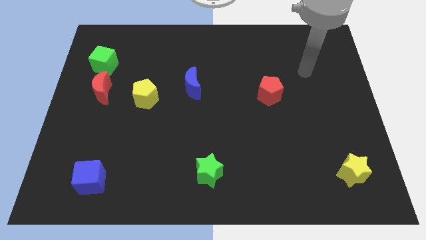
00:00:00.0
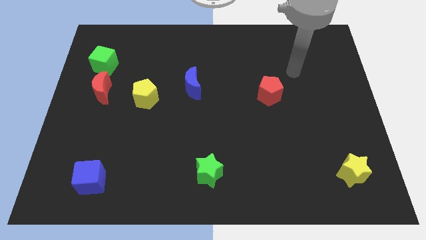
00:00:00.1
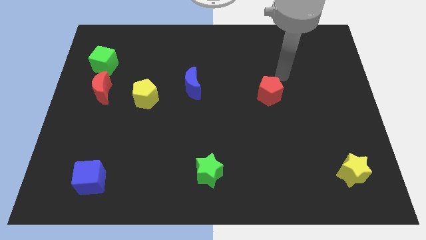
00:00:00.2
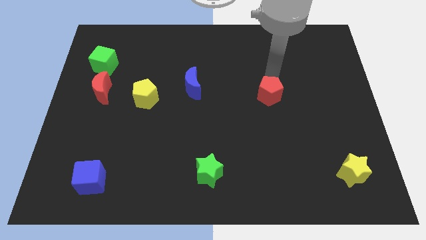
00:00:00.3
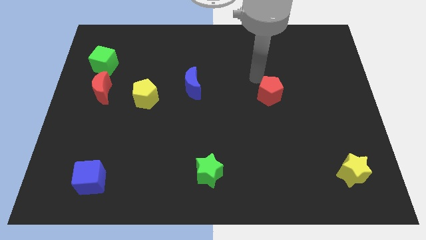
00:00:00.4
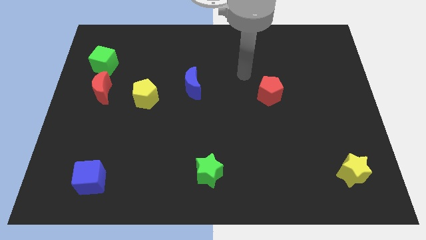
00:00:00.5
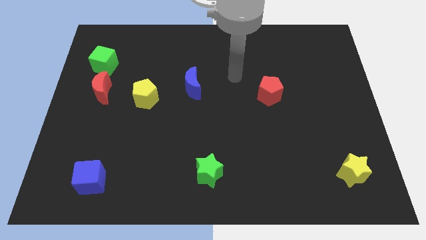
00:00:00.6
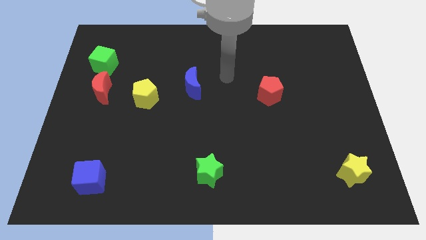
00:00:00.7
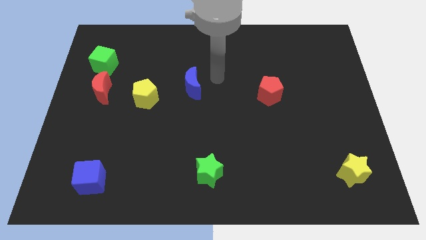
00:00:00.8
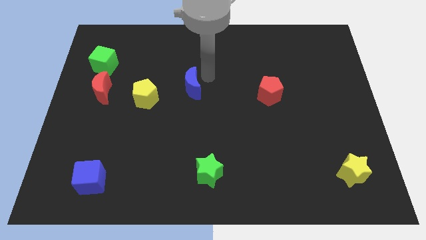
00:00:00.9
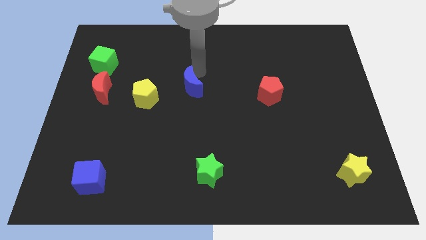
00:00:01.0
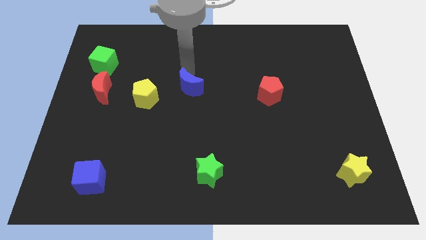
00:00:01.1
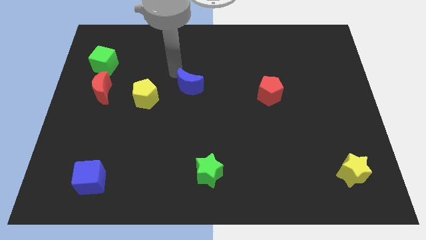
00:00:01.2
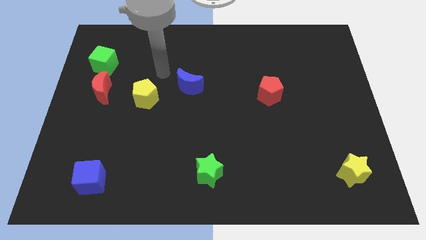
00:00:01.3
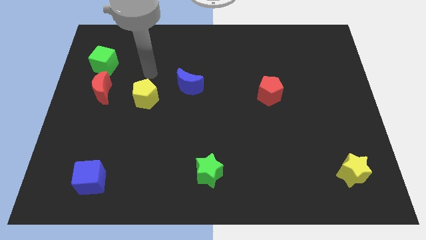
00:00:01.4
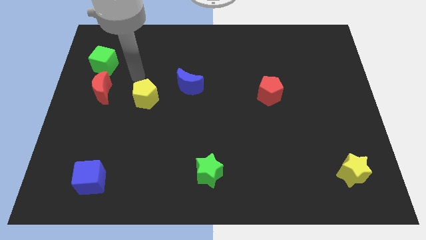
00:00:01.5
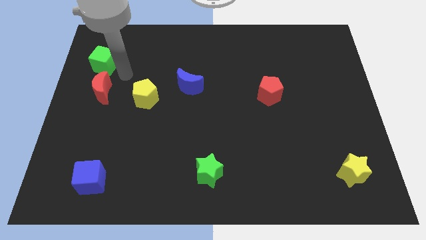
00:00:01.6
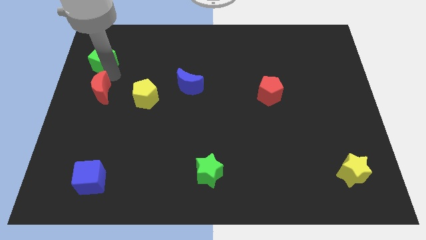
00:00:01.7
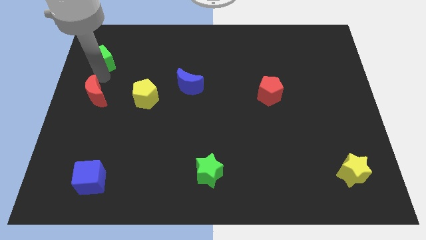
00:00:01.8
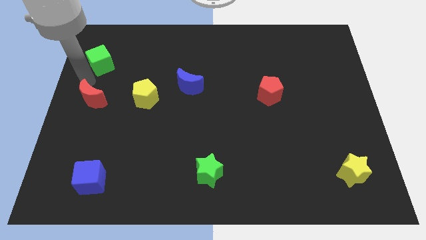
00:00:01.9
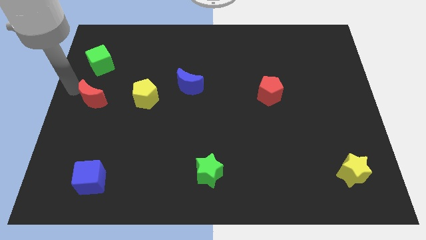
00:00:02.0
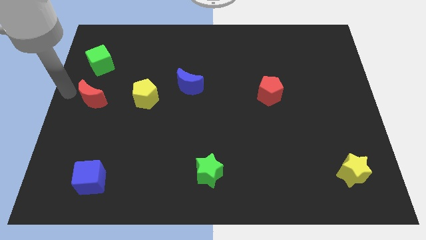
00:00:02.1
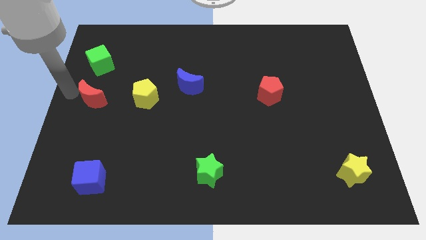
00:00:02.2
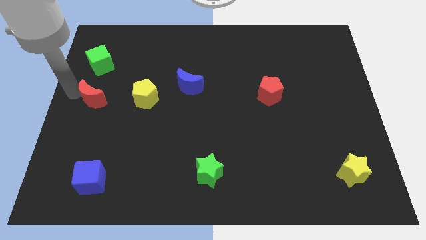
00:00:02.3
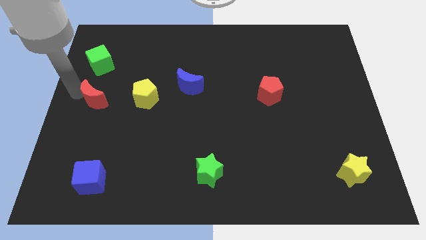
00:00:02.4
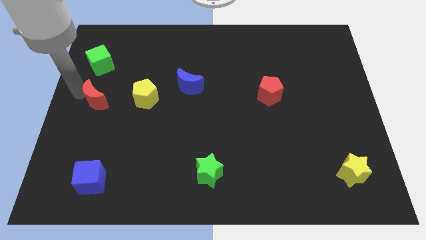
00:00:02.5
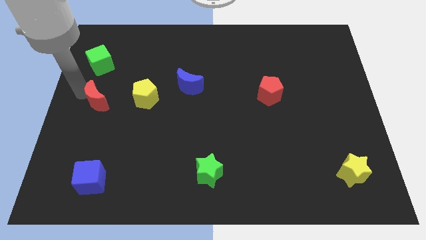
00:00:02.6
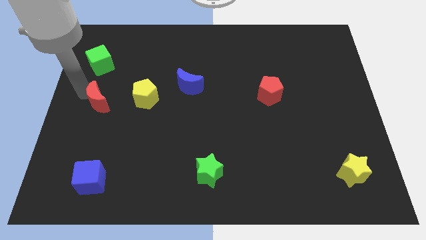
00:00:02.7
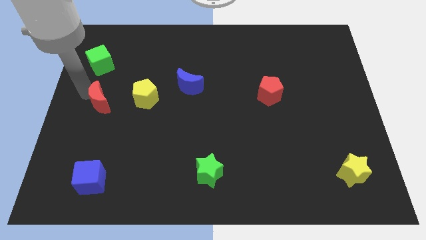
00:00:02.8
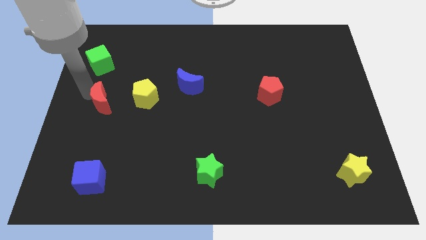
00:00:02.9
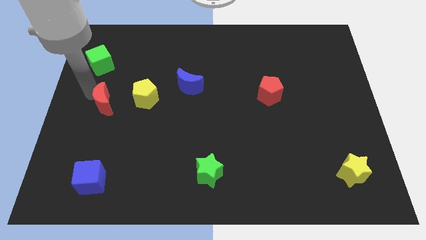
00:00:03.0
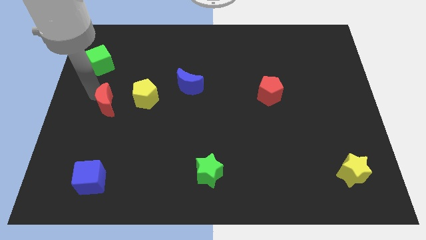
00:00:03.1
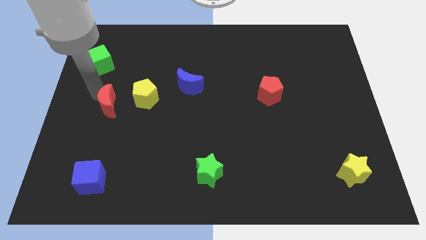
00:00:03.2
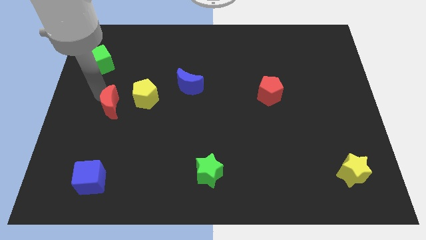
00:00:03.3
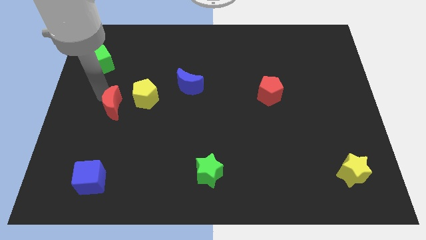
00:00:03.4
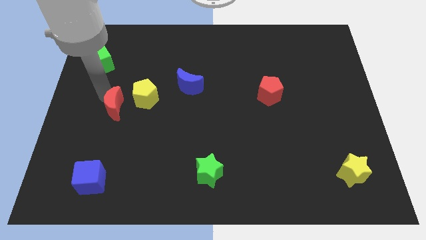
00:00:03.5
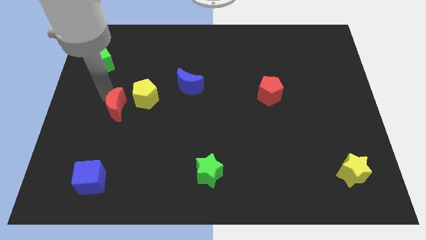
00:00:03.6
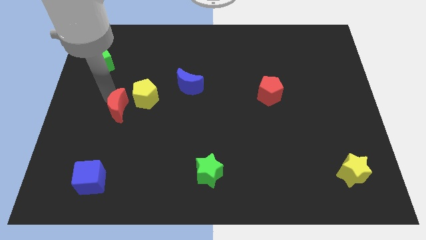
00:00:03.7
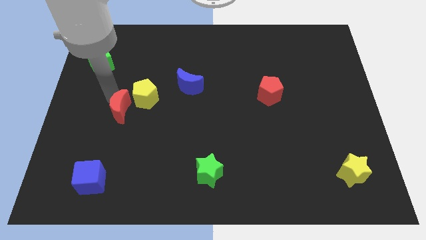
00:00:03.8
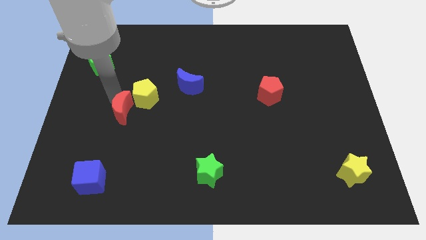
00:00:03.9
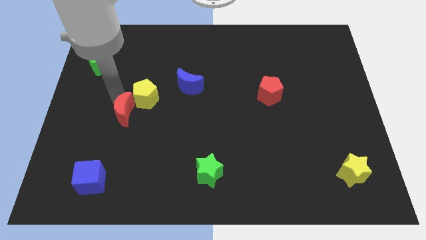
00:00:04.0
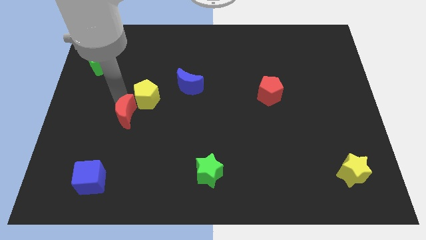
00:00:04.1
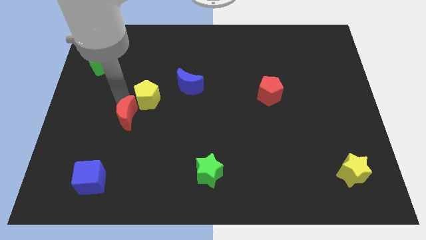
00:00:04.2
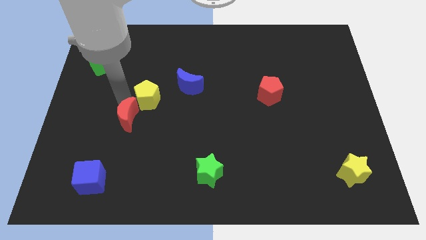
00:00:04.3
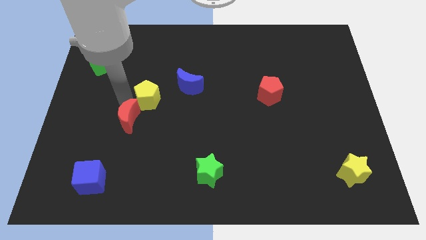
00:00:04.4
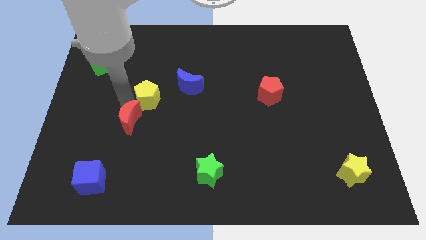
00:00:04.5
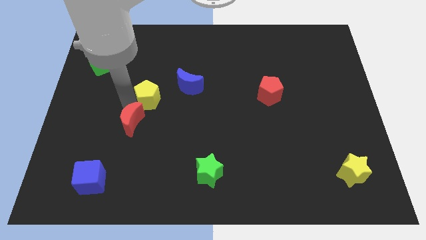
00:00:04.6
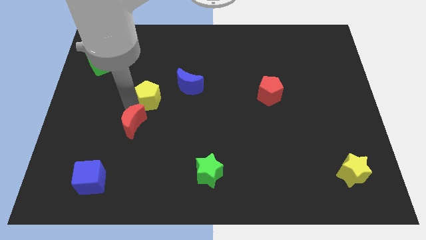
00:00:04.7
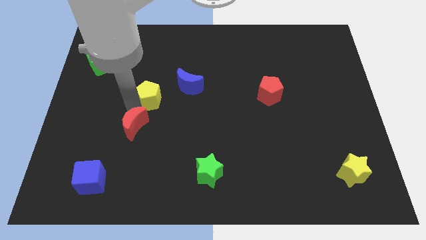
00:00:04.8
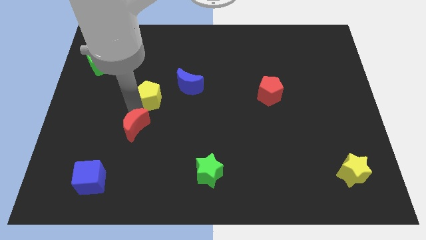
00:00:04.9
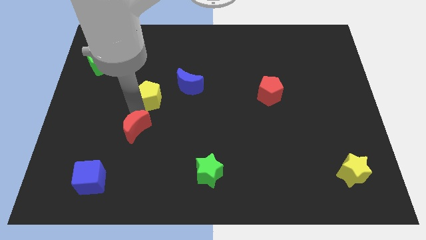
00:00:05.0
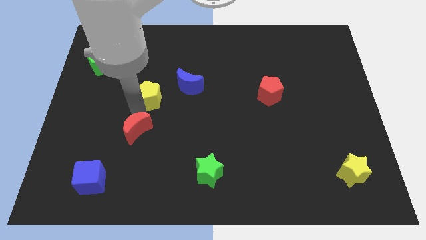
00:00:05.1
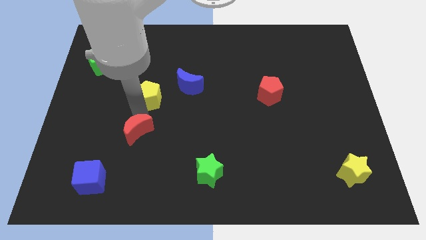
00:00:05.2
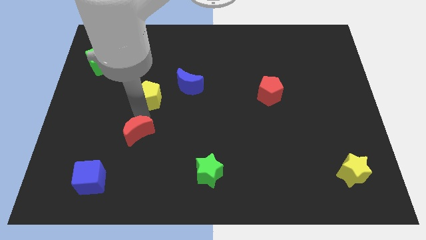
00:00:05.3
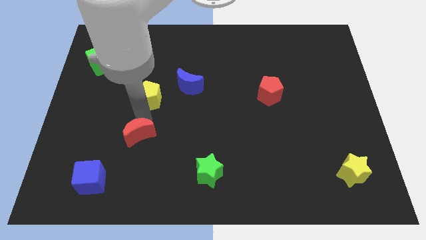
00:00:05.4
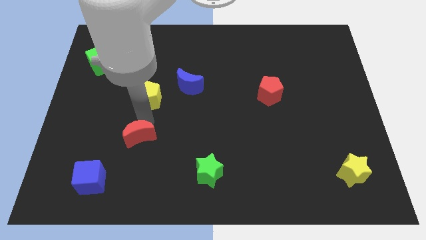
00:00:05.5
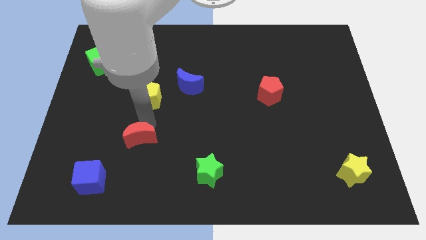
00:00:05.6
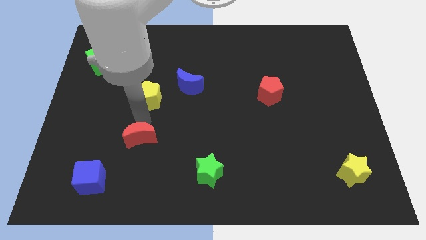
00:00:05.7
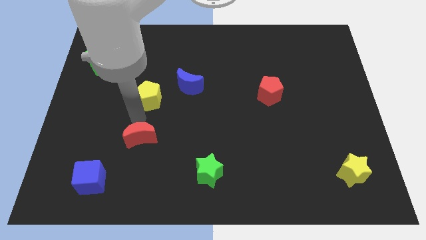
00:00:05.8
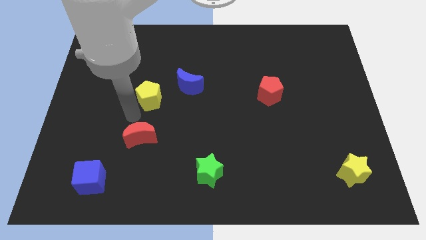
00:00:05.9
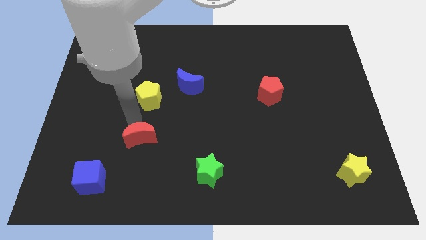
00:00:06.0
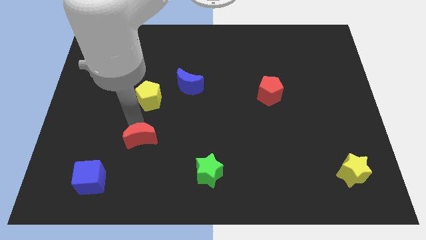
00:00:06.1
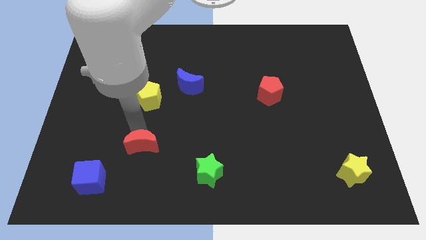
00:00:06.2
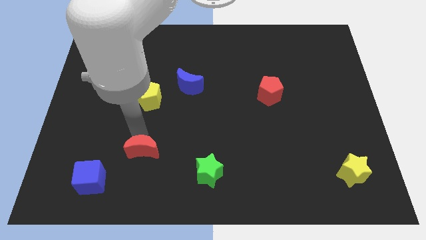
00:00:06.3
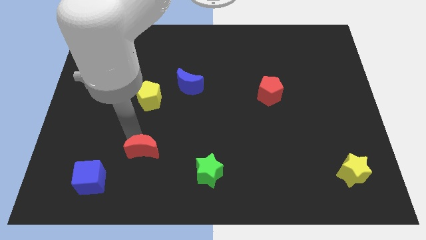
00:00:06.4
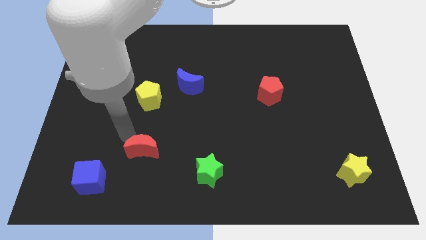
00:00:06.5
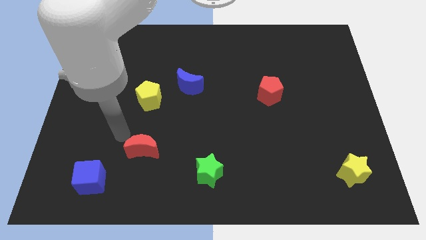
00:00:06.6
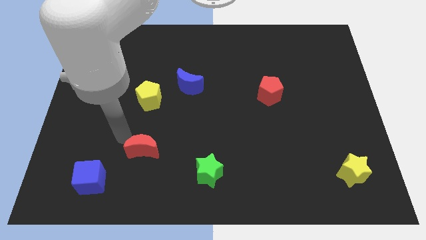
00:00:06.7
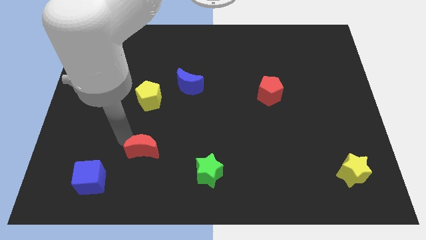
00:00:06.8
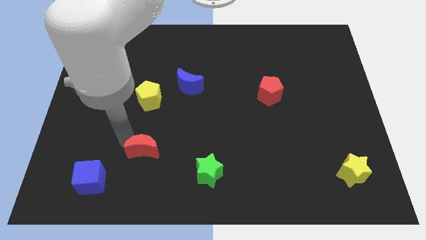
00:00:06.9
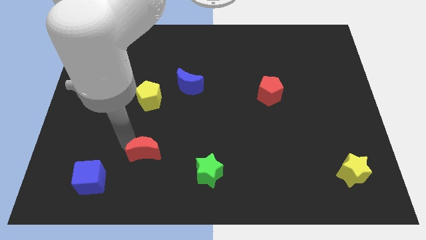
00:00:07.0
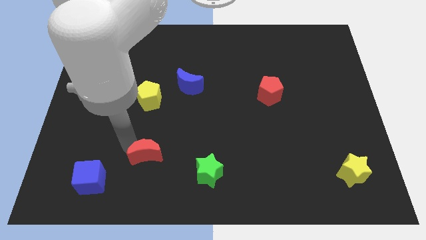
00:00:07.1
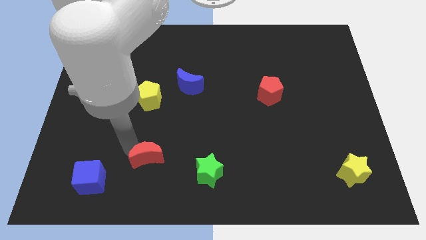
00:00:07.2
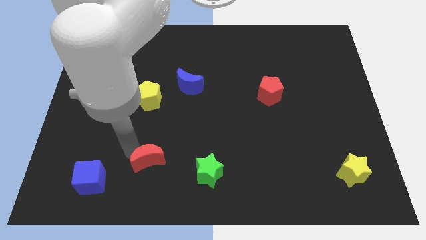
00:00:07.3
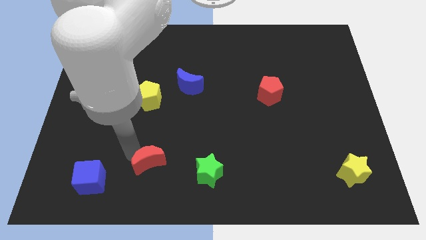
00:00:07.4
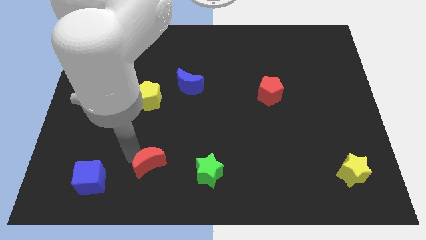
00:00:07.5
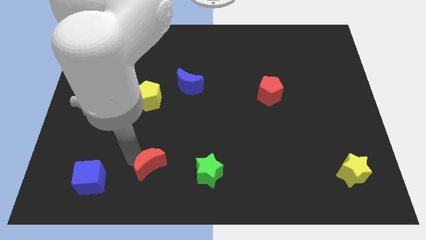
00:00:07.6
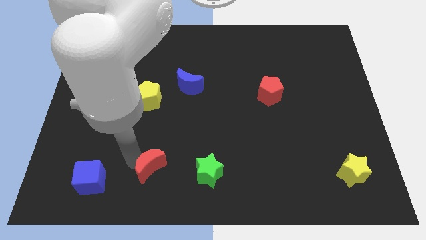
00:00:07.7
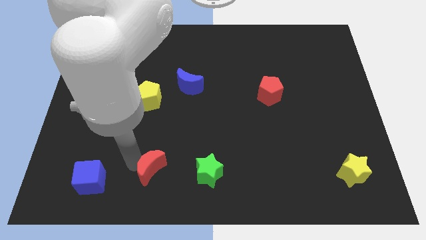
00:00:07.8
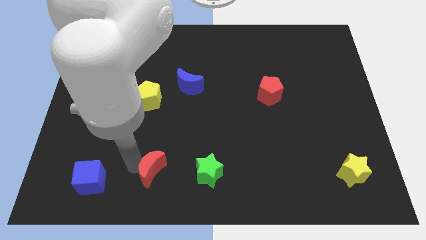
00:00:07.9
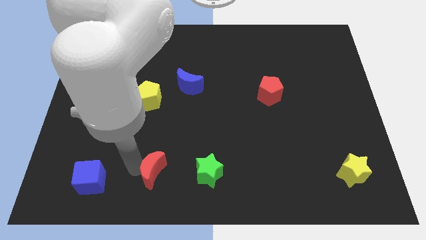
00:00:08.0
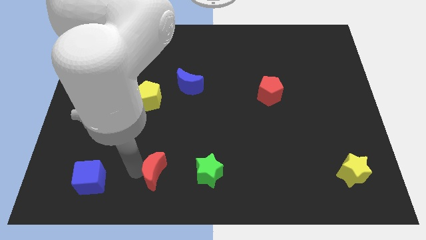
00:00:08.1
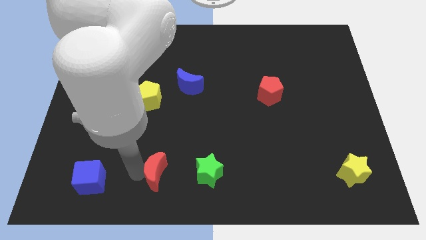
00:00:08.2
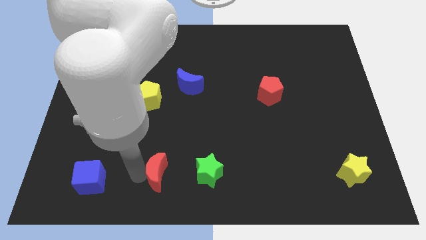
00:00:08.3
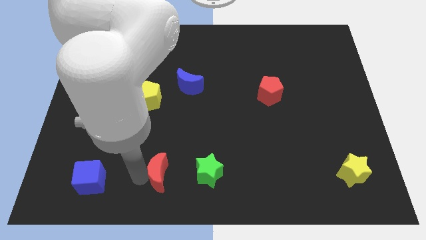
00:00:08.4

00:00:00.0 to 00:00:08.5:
move the red moon to the bottom side
